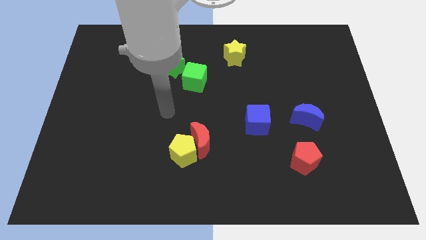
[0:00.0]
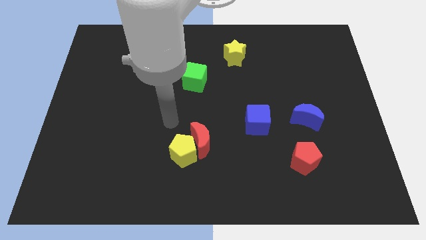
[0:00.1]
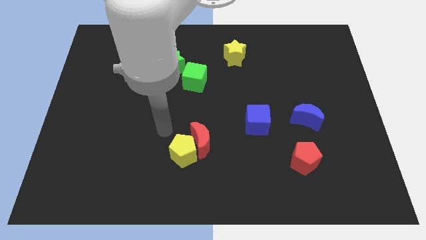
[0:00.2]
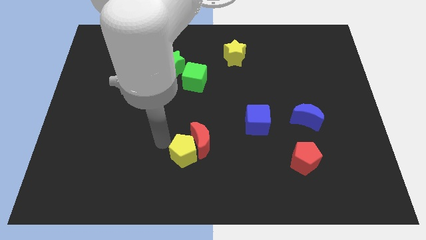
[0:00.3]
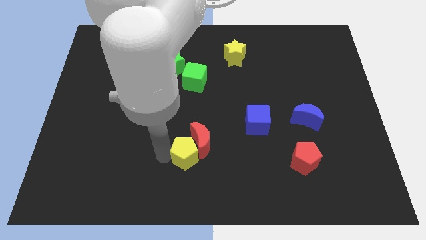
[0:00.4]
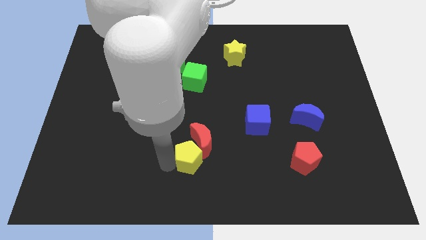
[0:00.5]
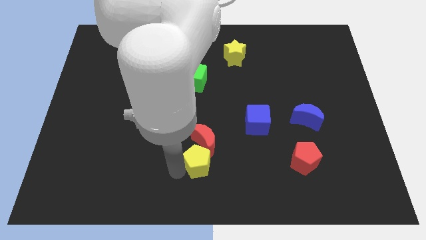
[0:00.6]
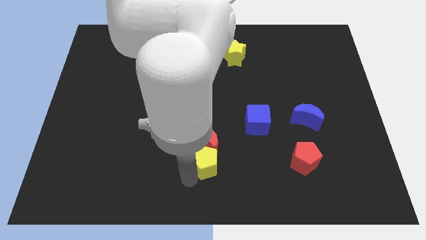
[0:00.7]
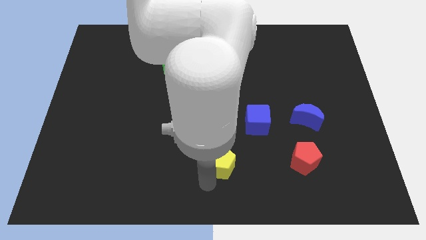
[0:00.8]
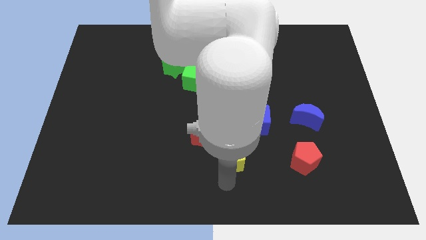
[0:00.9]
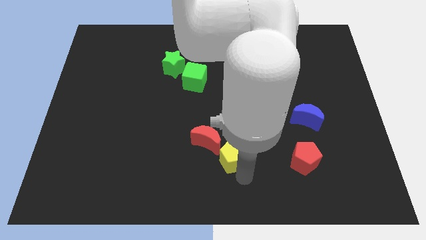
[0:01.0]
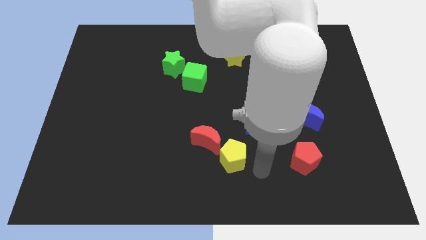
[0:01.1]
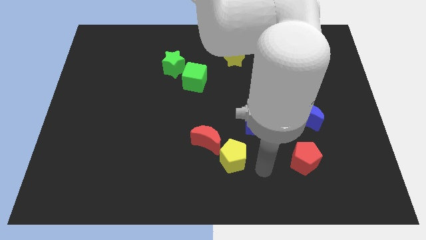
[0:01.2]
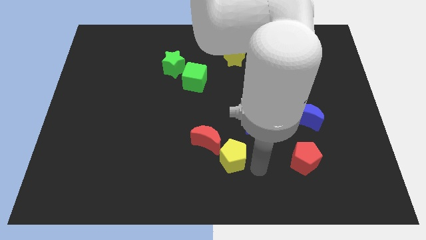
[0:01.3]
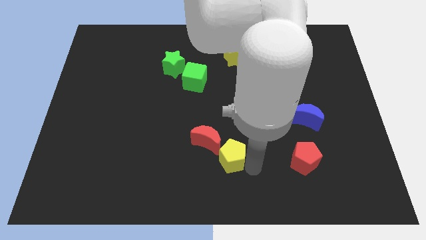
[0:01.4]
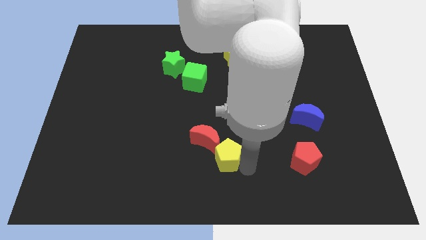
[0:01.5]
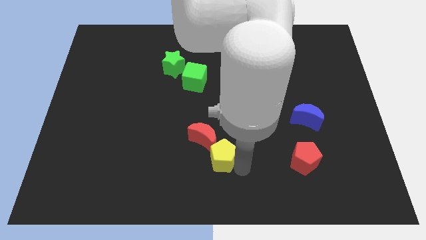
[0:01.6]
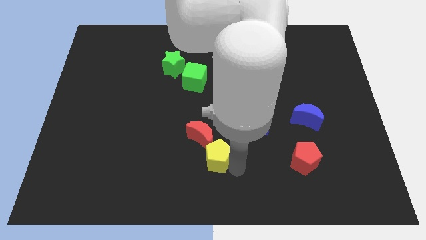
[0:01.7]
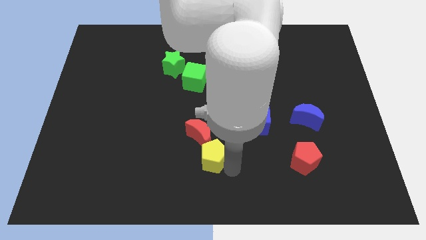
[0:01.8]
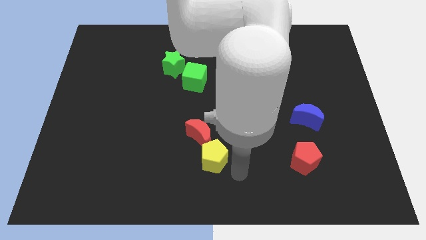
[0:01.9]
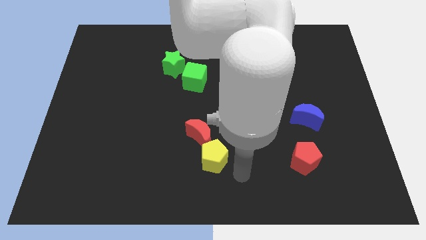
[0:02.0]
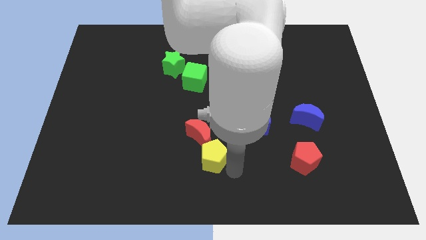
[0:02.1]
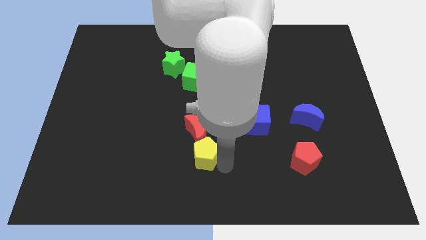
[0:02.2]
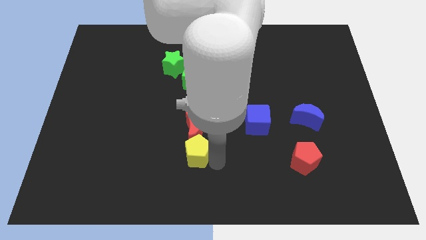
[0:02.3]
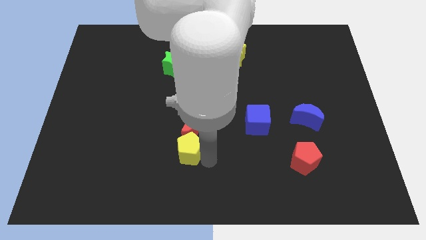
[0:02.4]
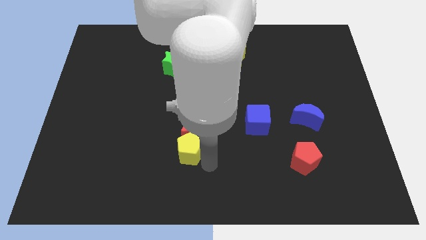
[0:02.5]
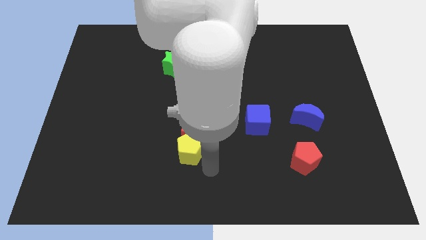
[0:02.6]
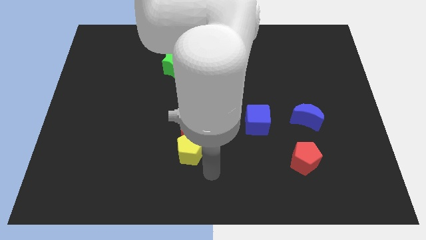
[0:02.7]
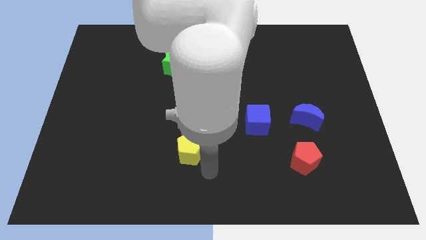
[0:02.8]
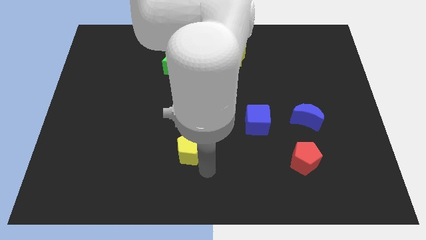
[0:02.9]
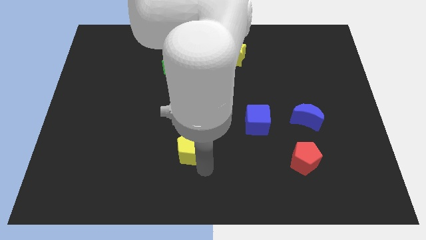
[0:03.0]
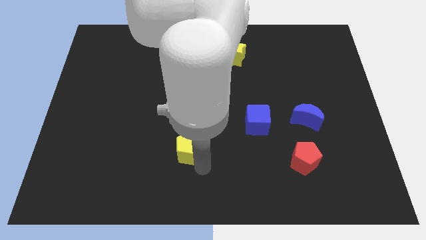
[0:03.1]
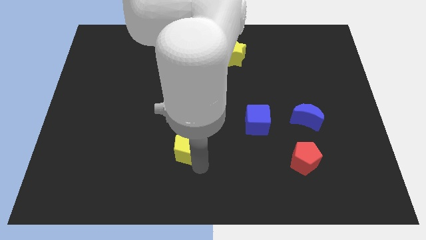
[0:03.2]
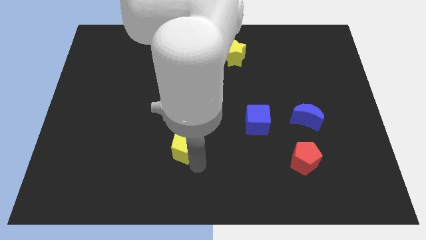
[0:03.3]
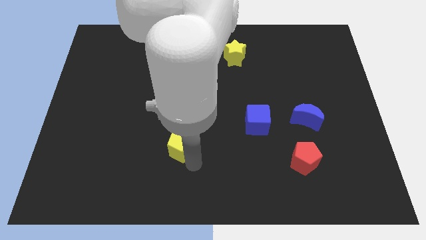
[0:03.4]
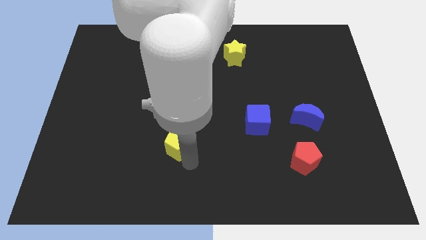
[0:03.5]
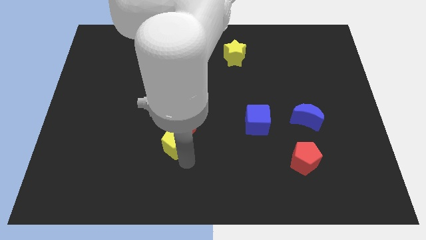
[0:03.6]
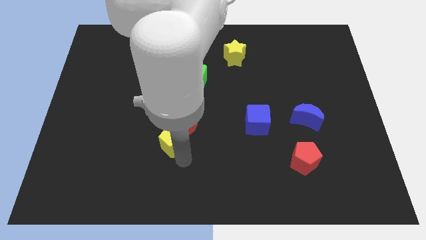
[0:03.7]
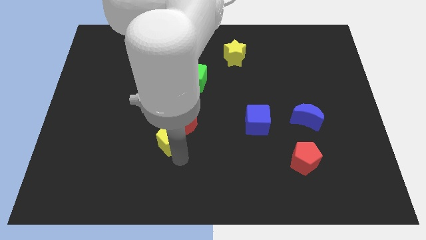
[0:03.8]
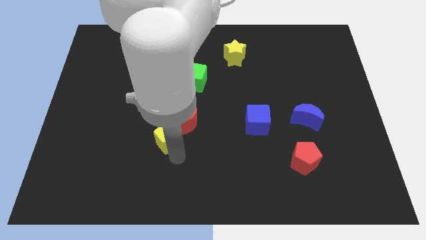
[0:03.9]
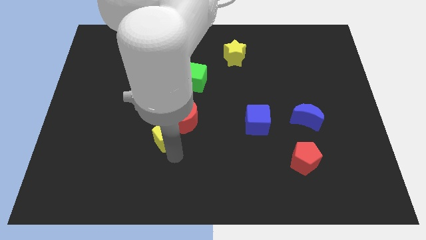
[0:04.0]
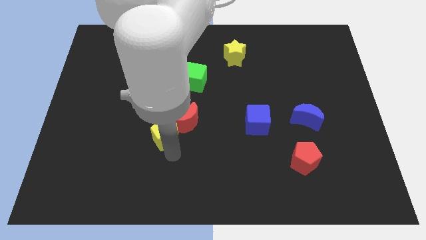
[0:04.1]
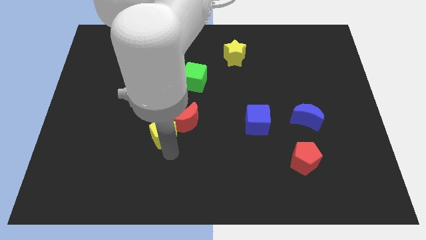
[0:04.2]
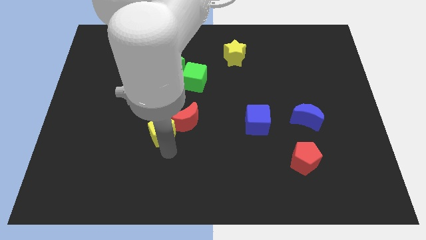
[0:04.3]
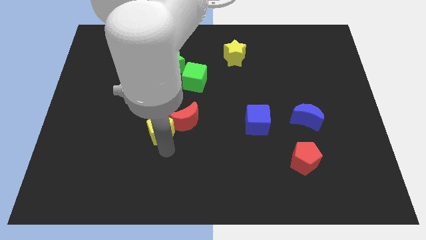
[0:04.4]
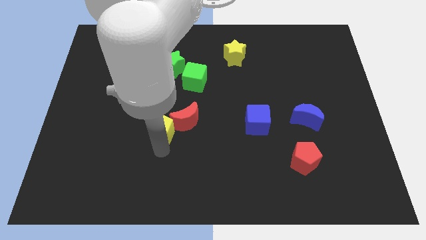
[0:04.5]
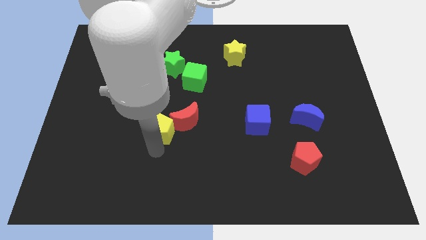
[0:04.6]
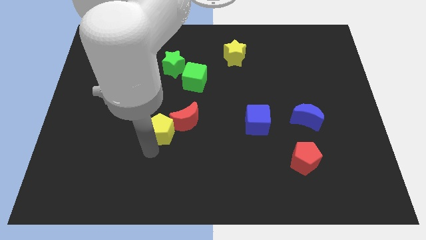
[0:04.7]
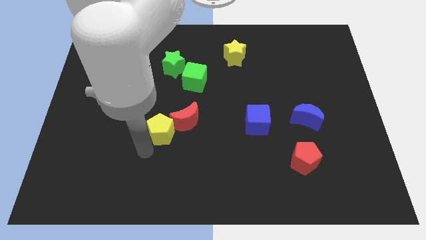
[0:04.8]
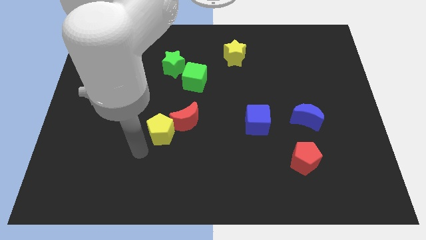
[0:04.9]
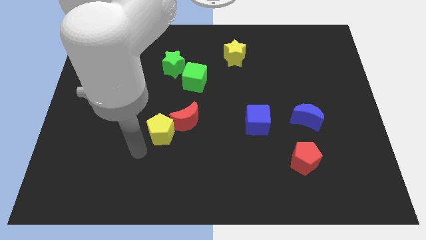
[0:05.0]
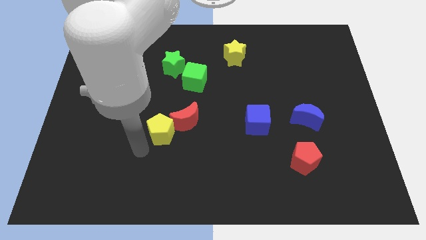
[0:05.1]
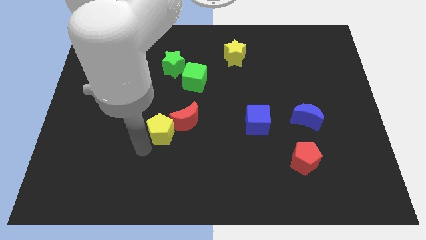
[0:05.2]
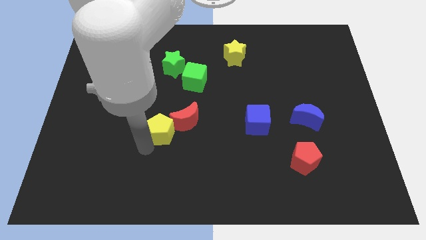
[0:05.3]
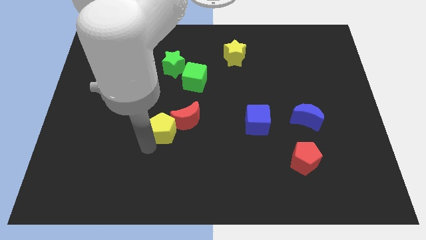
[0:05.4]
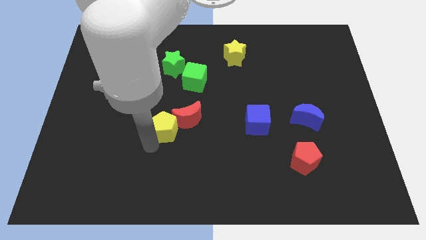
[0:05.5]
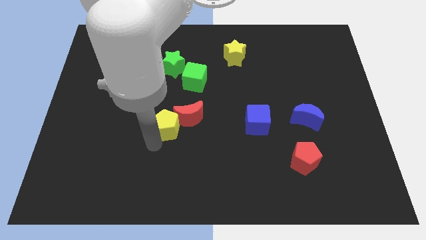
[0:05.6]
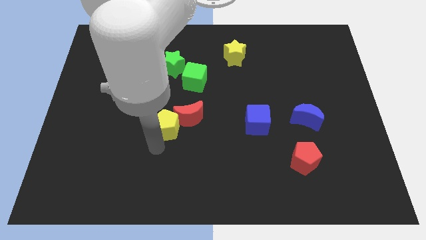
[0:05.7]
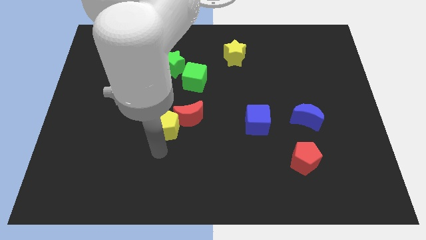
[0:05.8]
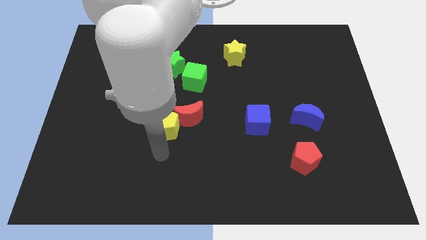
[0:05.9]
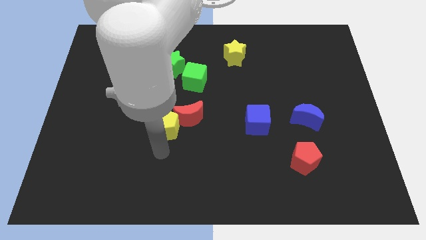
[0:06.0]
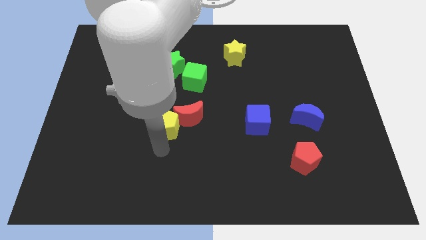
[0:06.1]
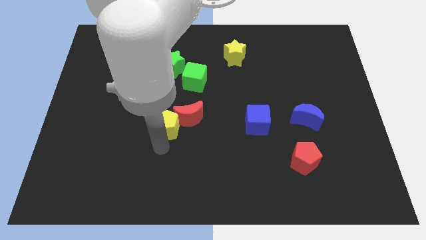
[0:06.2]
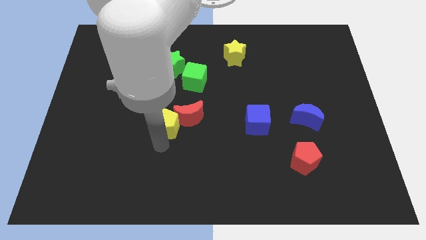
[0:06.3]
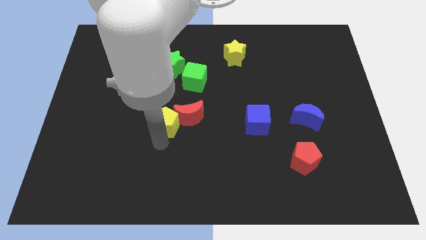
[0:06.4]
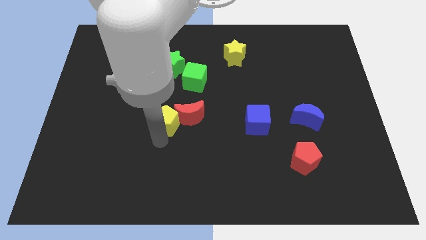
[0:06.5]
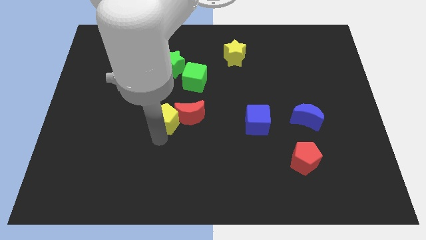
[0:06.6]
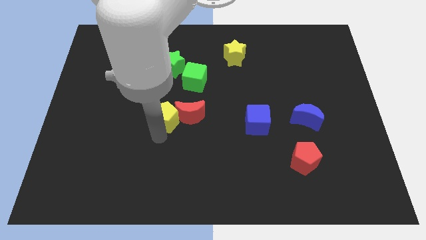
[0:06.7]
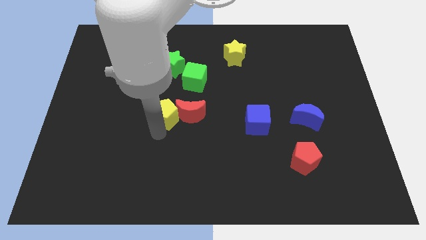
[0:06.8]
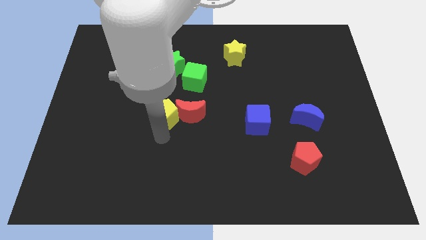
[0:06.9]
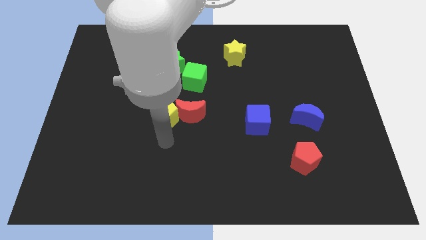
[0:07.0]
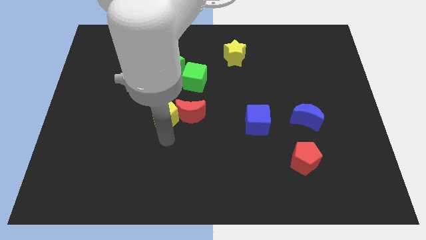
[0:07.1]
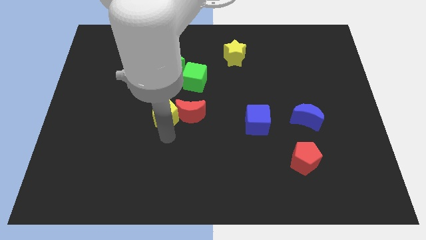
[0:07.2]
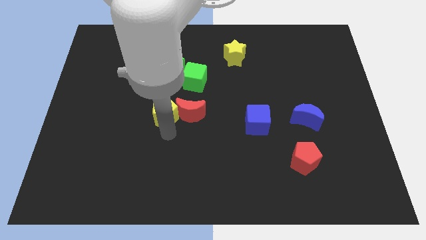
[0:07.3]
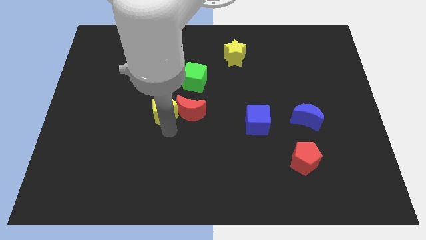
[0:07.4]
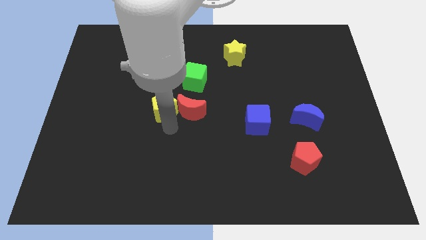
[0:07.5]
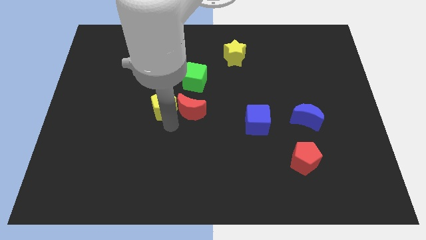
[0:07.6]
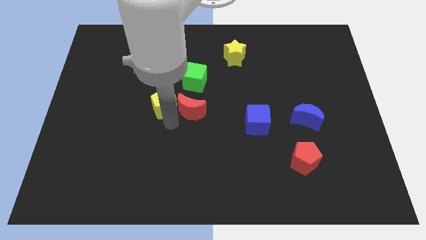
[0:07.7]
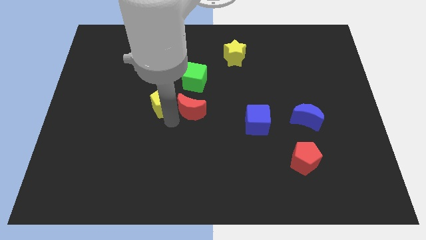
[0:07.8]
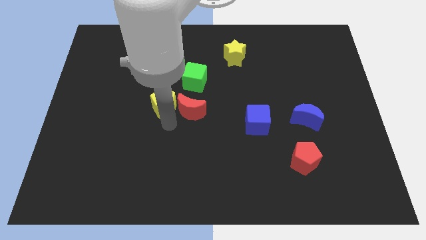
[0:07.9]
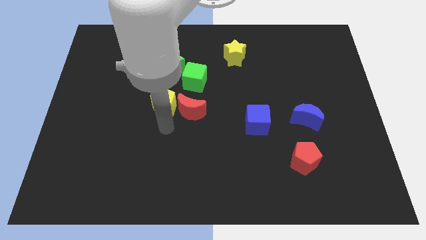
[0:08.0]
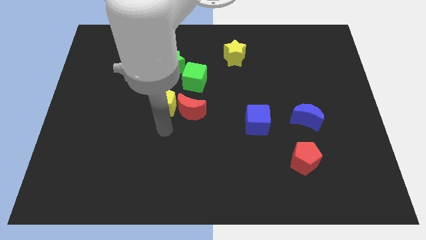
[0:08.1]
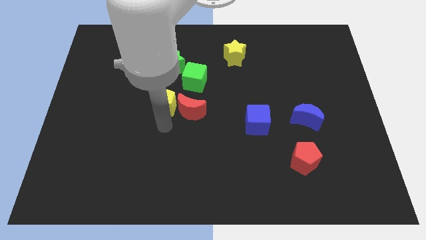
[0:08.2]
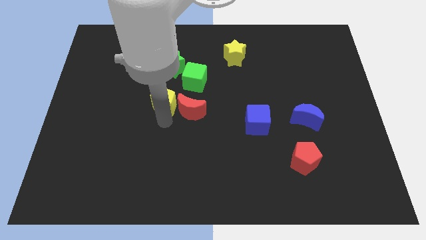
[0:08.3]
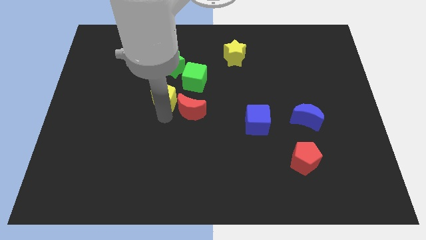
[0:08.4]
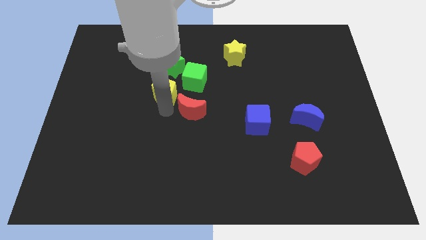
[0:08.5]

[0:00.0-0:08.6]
slide the yellow pentagon to the left of the green cube
